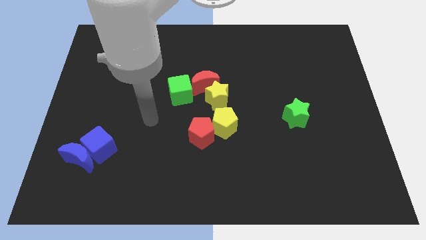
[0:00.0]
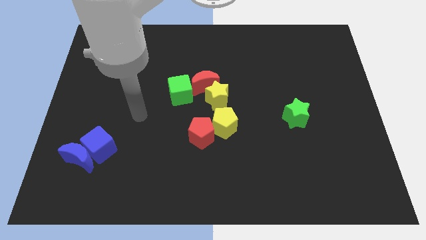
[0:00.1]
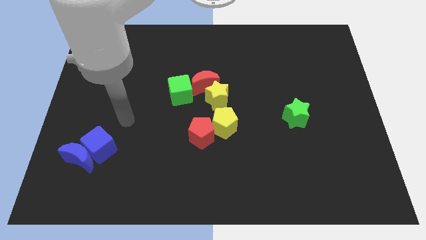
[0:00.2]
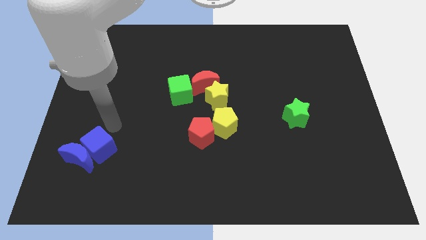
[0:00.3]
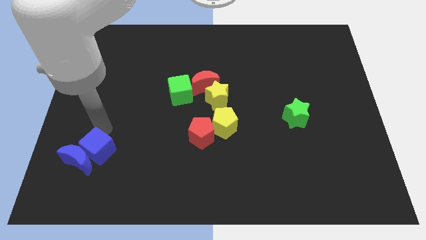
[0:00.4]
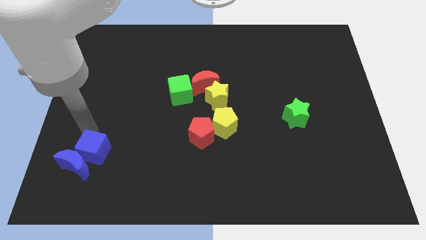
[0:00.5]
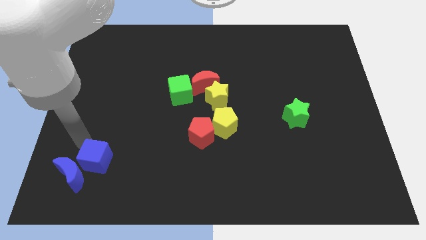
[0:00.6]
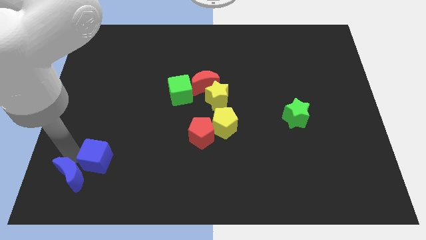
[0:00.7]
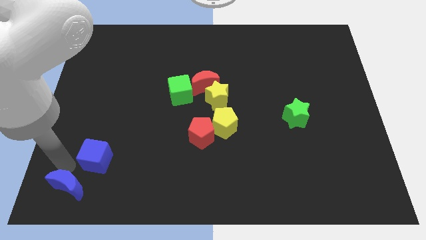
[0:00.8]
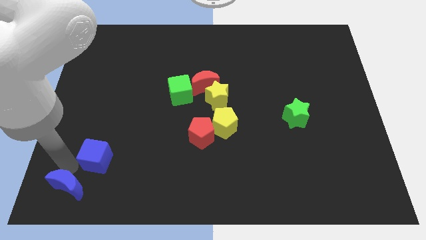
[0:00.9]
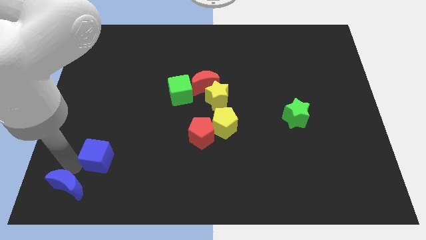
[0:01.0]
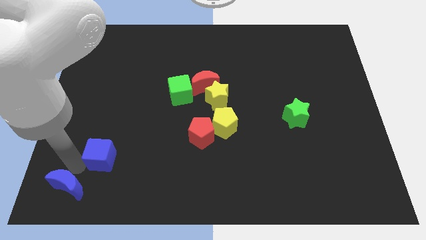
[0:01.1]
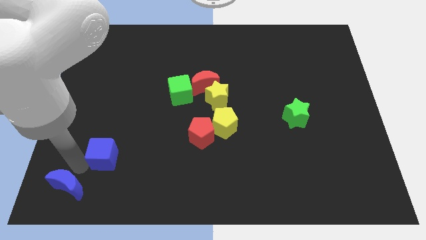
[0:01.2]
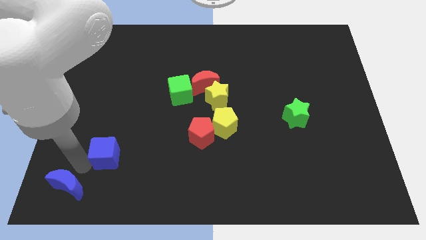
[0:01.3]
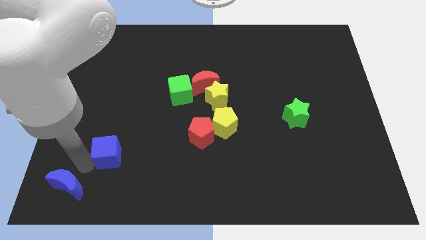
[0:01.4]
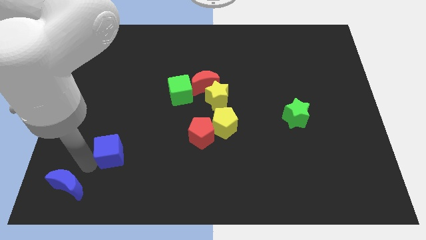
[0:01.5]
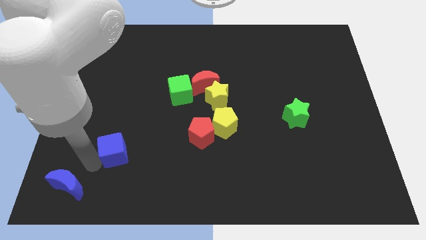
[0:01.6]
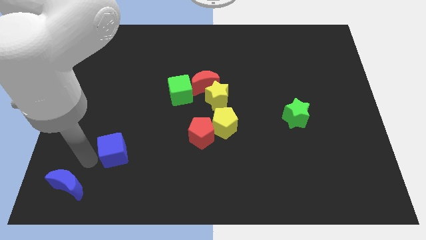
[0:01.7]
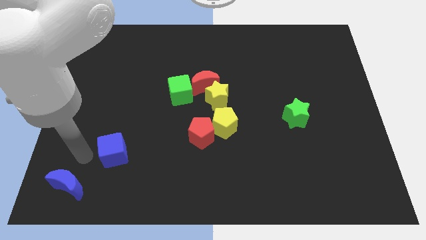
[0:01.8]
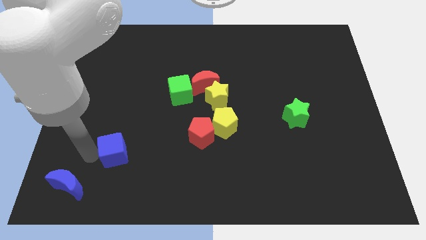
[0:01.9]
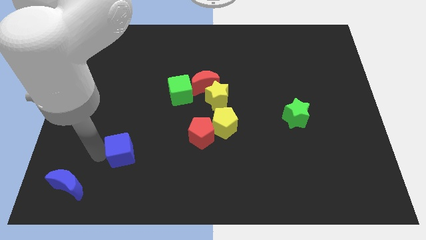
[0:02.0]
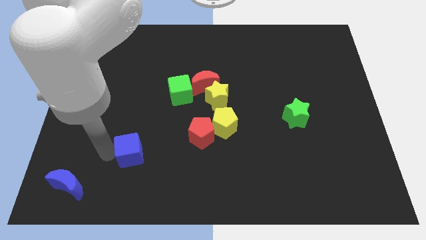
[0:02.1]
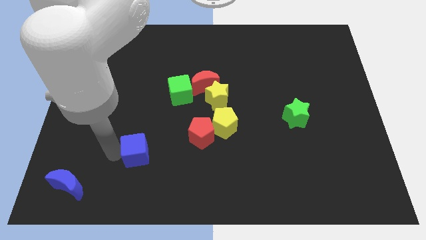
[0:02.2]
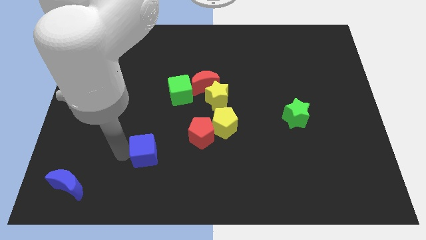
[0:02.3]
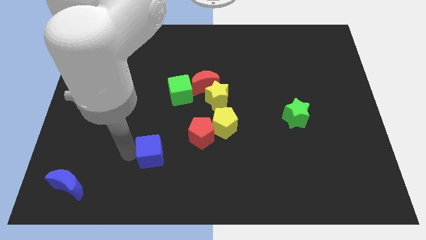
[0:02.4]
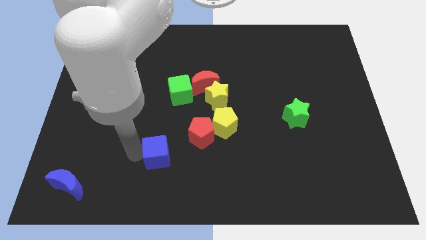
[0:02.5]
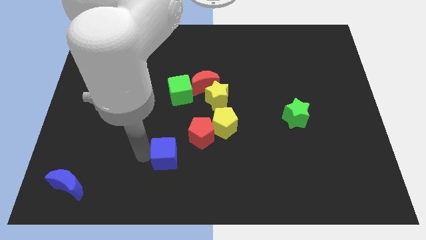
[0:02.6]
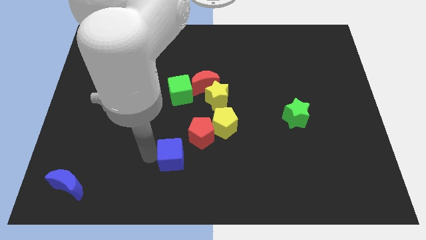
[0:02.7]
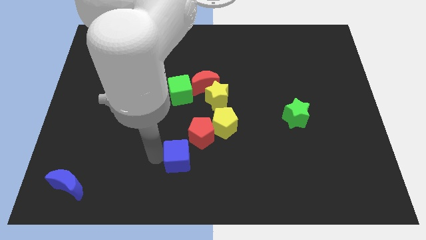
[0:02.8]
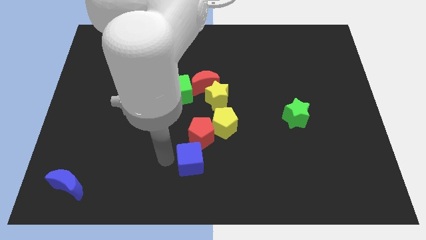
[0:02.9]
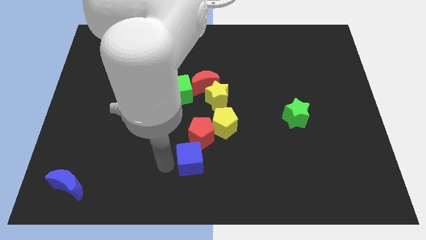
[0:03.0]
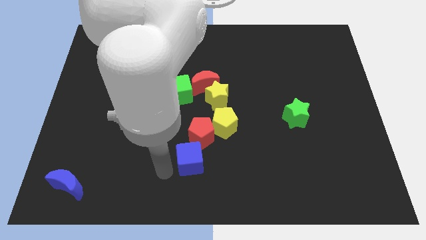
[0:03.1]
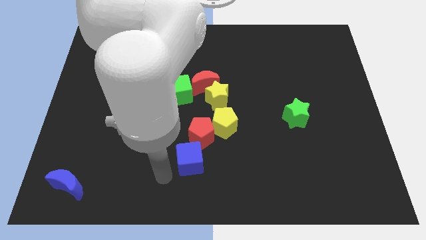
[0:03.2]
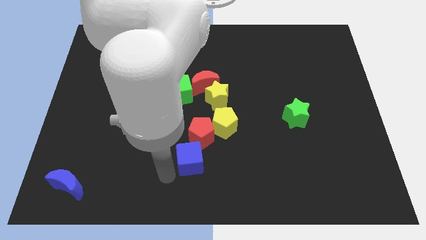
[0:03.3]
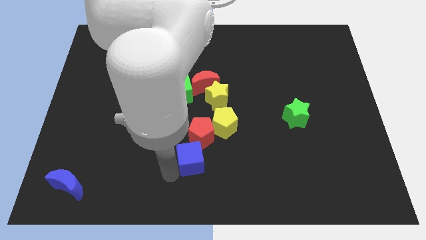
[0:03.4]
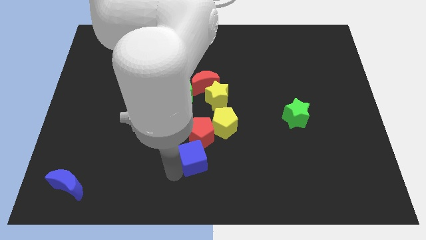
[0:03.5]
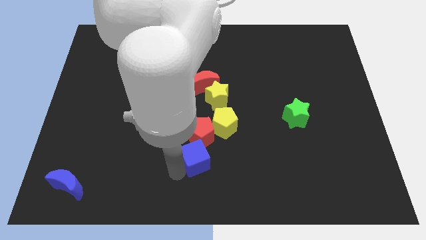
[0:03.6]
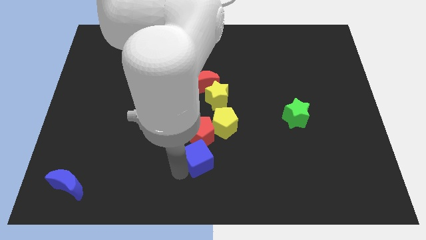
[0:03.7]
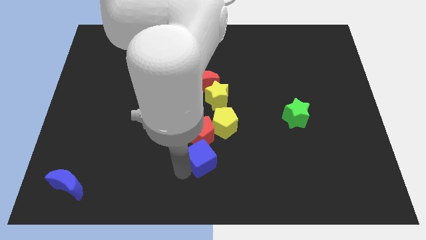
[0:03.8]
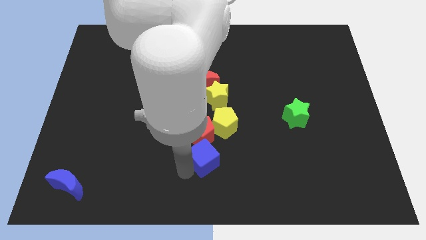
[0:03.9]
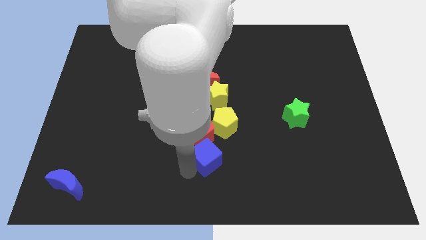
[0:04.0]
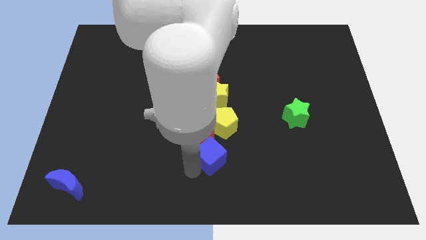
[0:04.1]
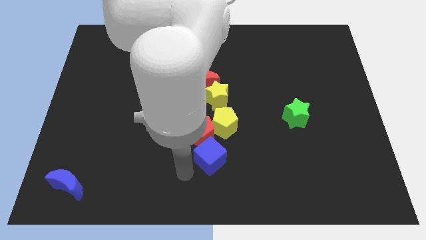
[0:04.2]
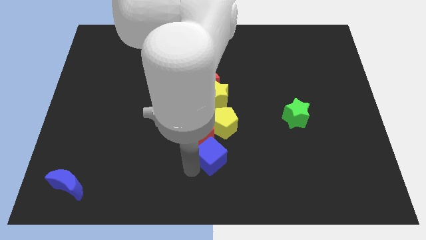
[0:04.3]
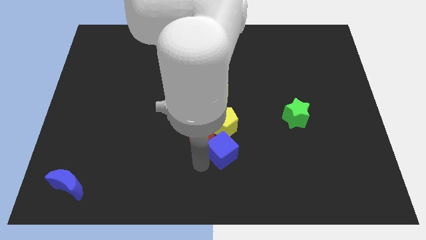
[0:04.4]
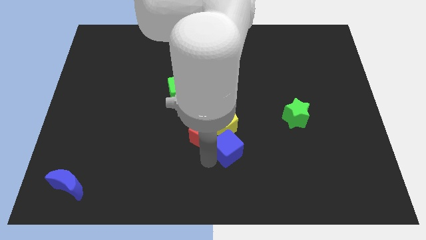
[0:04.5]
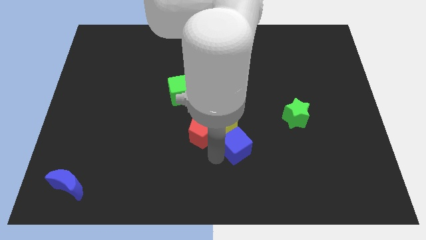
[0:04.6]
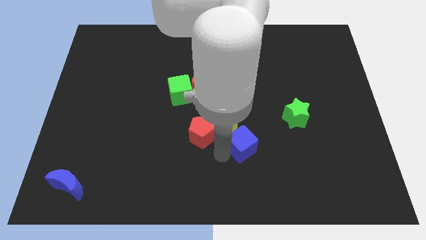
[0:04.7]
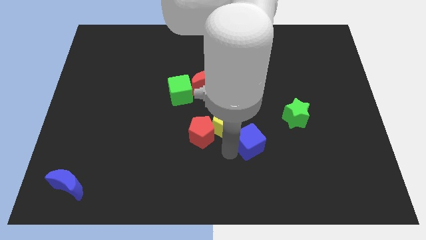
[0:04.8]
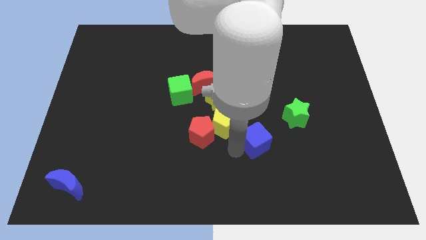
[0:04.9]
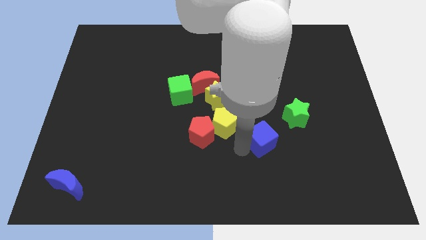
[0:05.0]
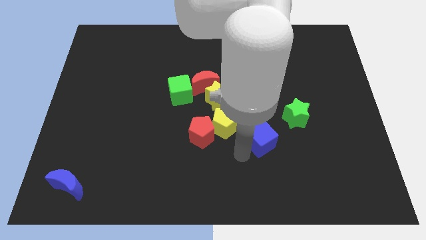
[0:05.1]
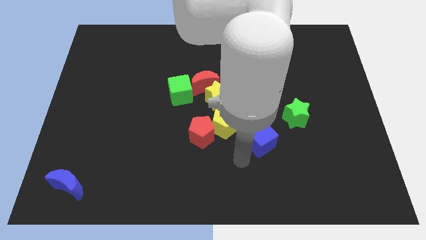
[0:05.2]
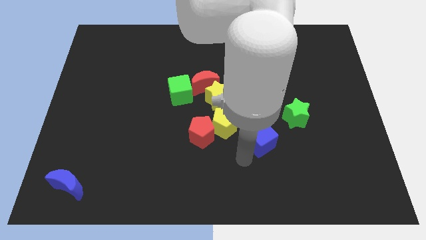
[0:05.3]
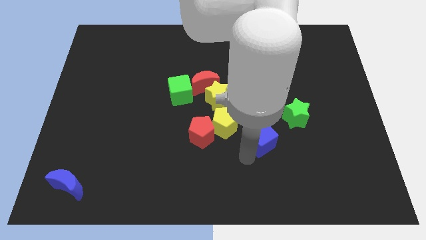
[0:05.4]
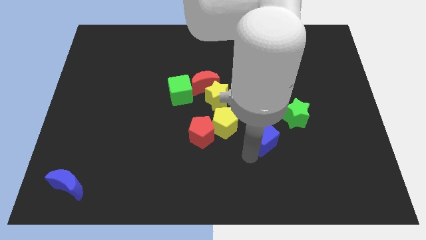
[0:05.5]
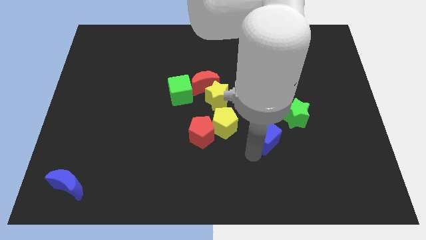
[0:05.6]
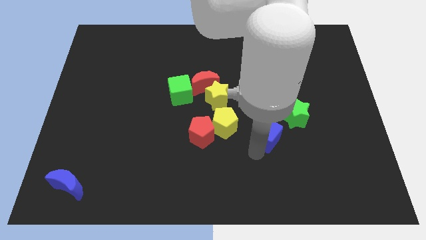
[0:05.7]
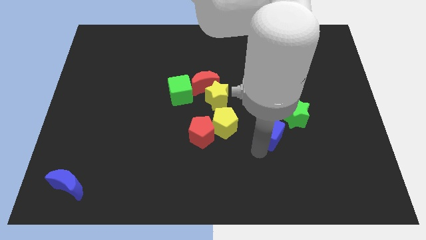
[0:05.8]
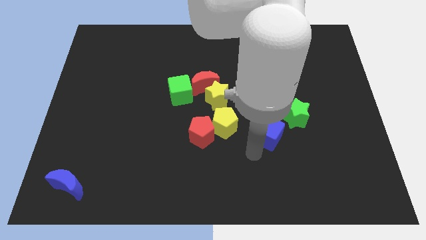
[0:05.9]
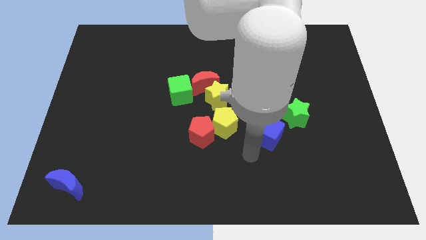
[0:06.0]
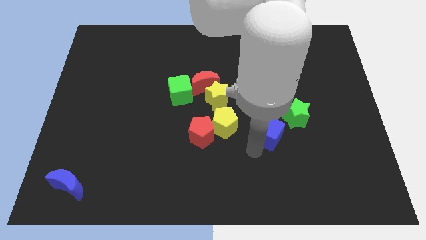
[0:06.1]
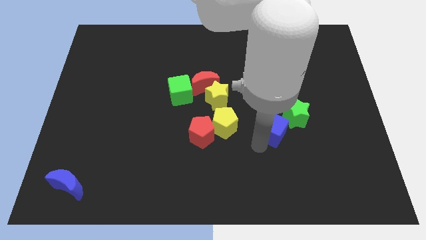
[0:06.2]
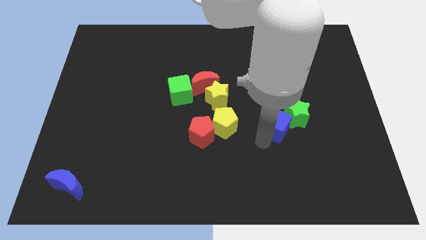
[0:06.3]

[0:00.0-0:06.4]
move the blue cube next to the green star

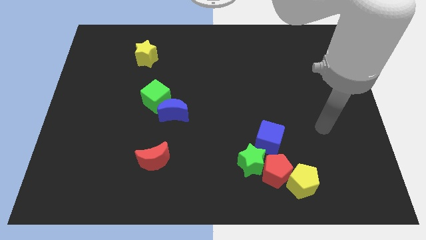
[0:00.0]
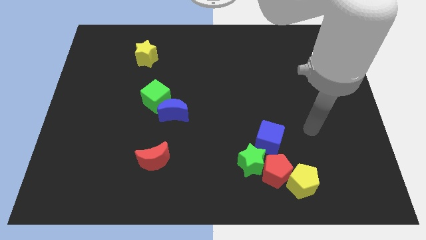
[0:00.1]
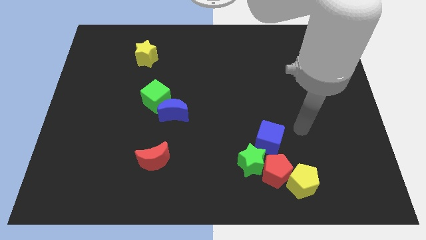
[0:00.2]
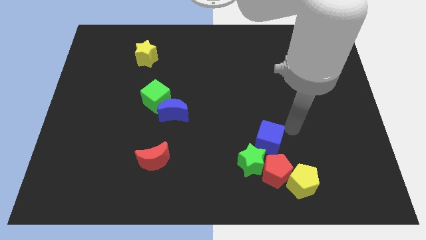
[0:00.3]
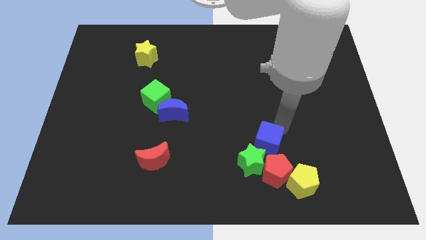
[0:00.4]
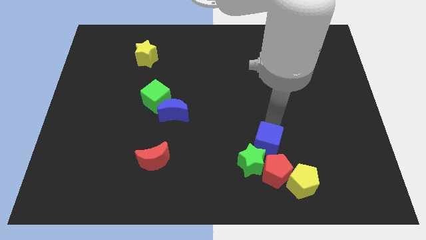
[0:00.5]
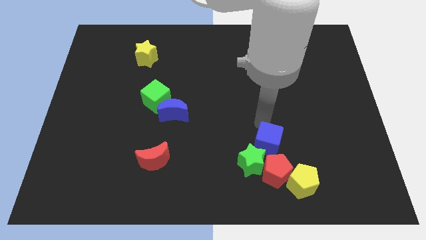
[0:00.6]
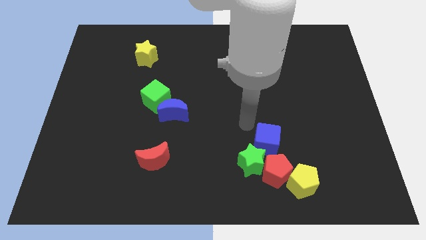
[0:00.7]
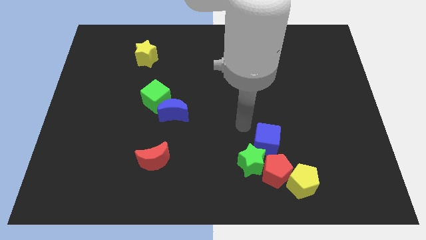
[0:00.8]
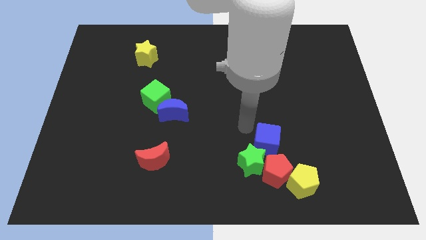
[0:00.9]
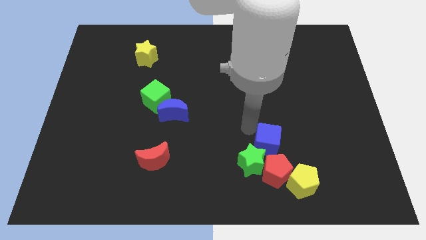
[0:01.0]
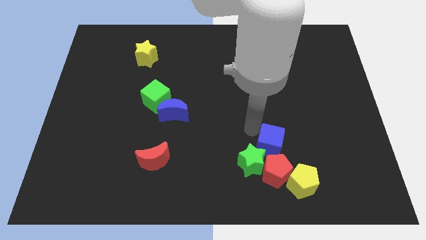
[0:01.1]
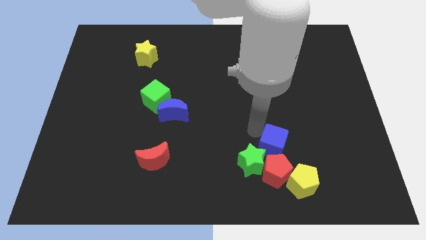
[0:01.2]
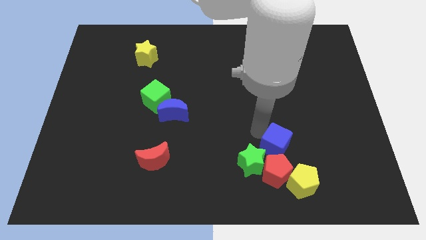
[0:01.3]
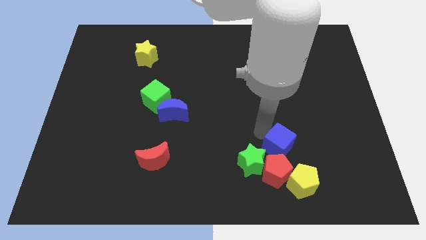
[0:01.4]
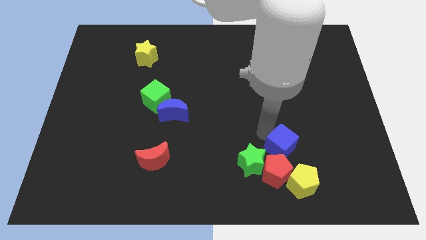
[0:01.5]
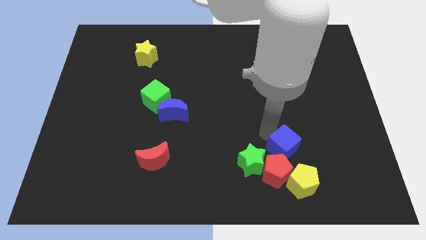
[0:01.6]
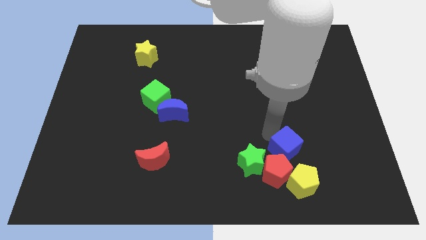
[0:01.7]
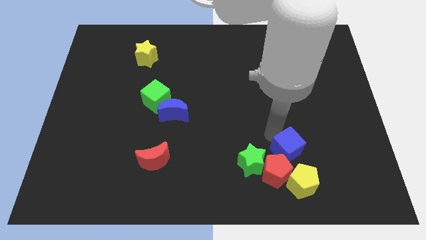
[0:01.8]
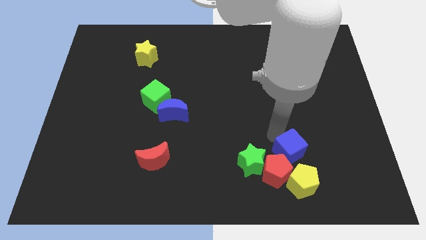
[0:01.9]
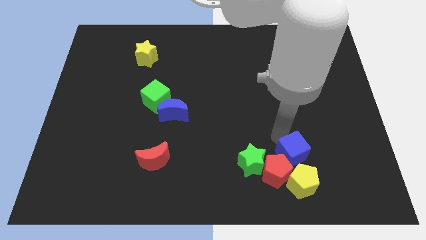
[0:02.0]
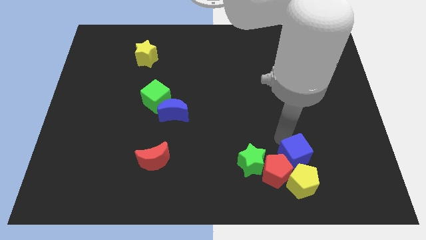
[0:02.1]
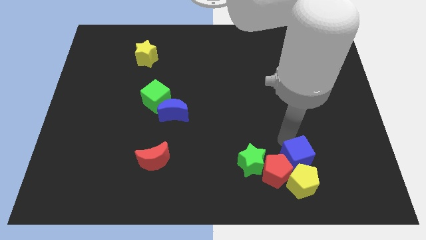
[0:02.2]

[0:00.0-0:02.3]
move the blue cube to the yellow pentagon
